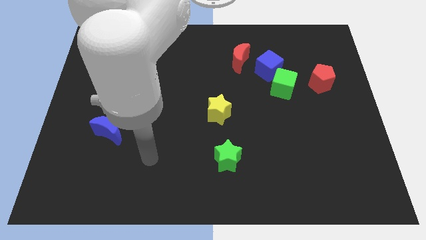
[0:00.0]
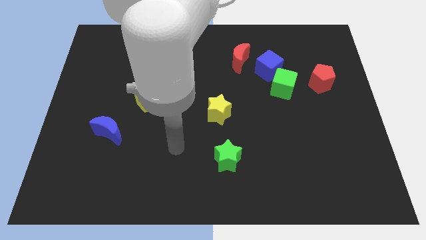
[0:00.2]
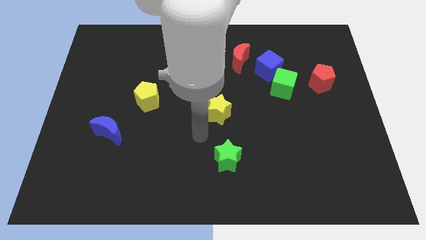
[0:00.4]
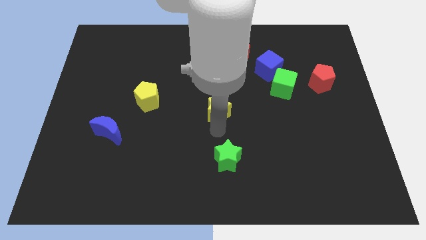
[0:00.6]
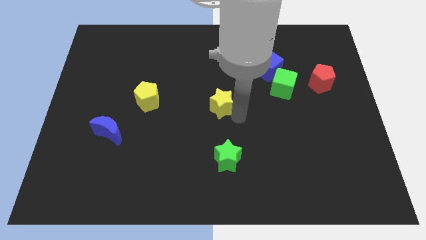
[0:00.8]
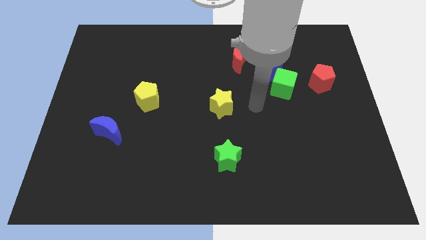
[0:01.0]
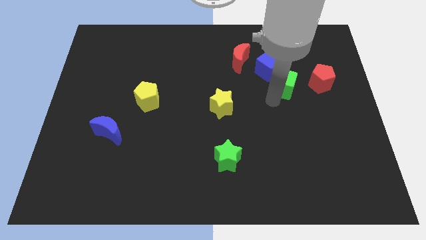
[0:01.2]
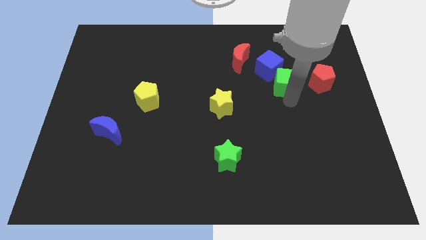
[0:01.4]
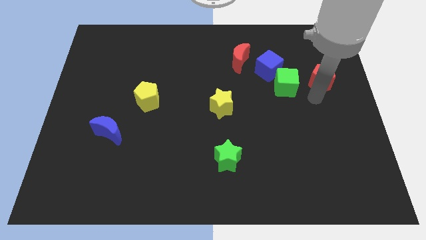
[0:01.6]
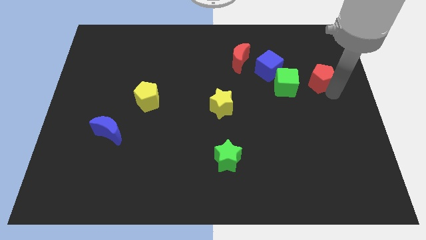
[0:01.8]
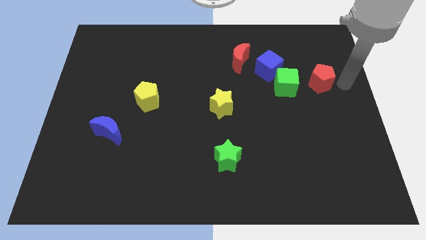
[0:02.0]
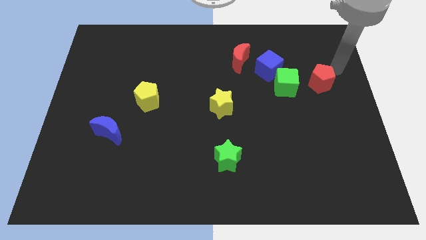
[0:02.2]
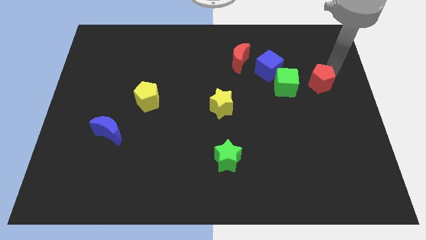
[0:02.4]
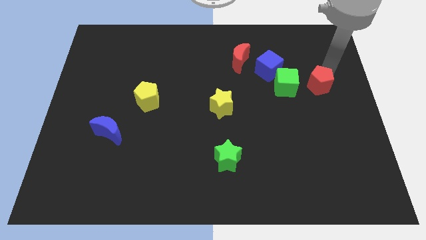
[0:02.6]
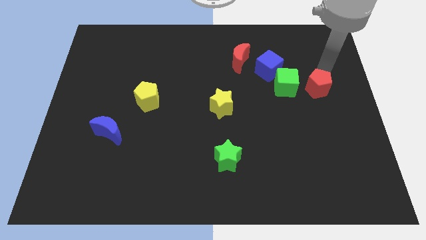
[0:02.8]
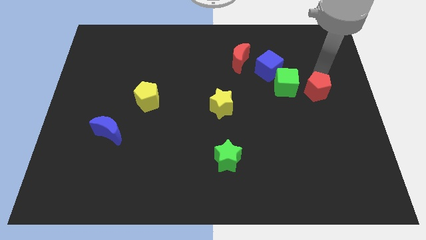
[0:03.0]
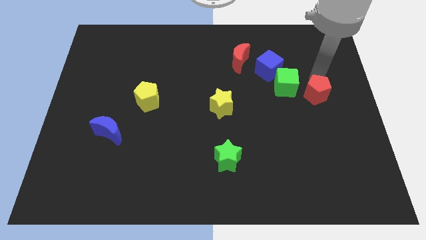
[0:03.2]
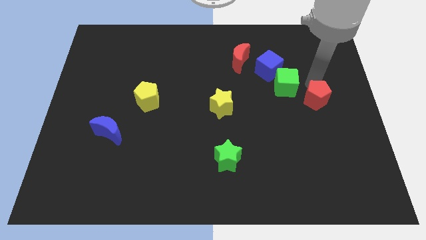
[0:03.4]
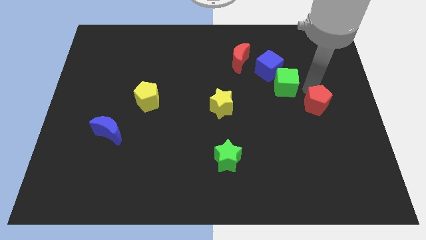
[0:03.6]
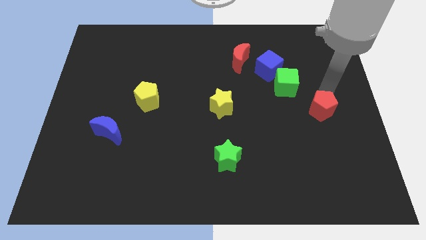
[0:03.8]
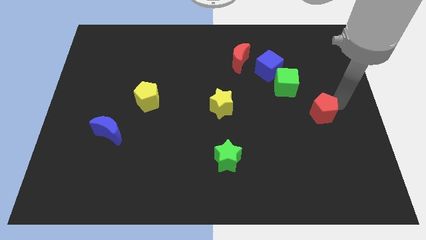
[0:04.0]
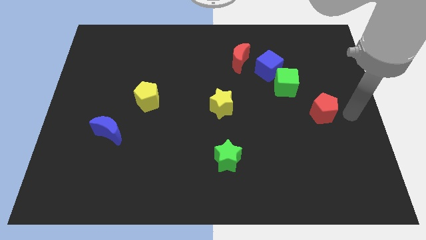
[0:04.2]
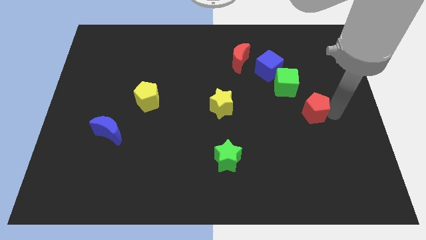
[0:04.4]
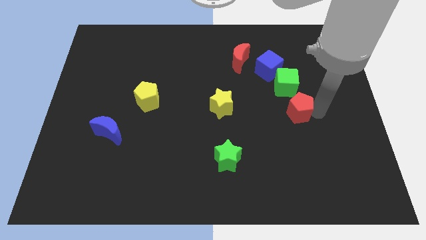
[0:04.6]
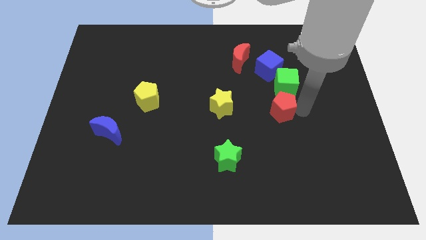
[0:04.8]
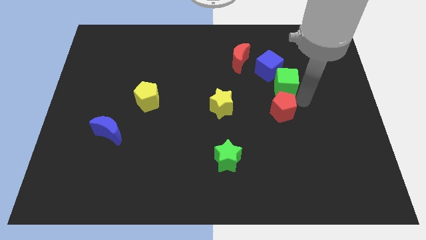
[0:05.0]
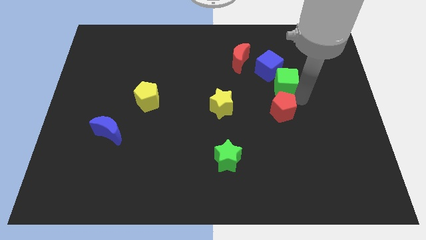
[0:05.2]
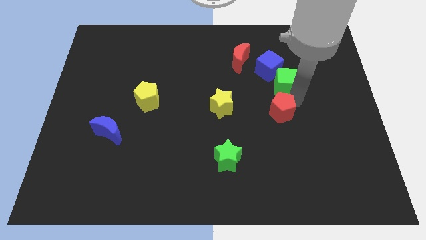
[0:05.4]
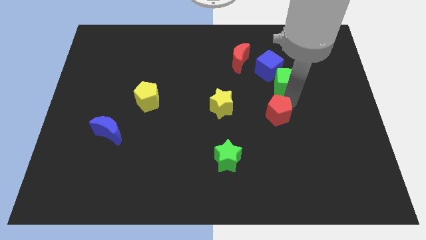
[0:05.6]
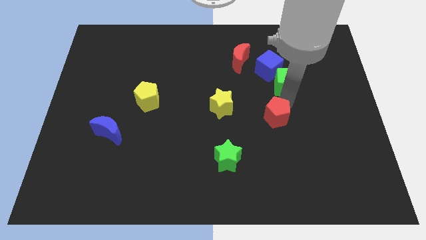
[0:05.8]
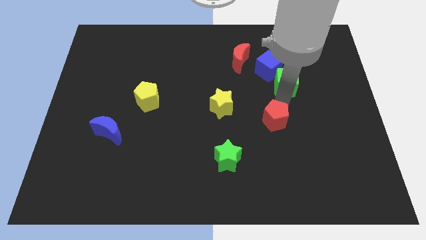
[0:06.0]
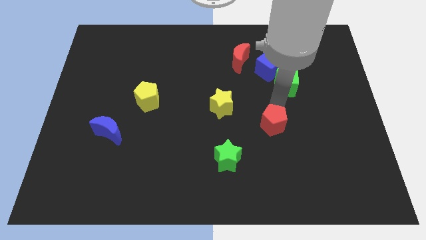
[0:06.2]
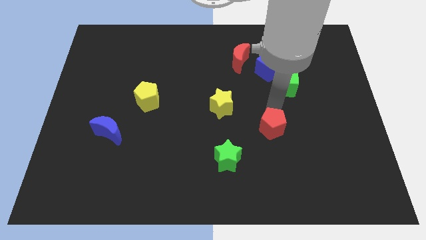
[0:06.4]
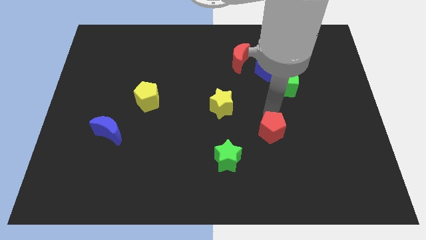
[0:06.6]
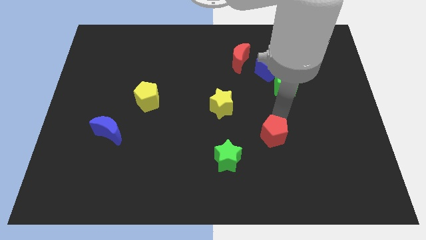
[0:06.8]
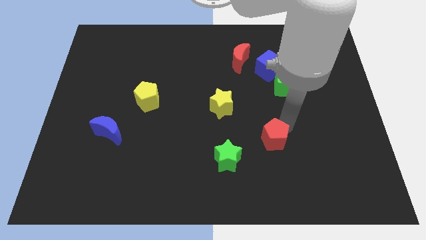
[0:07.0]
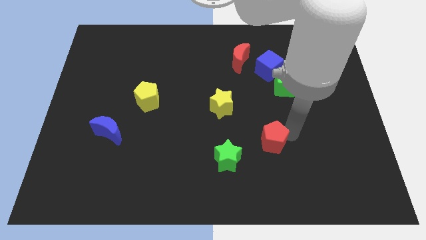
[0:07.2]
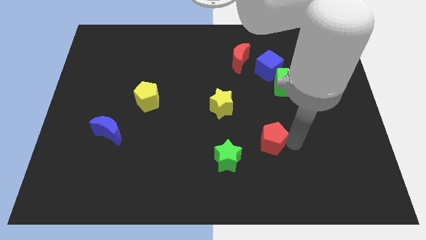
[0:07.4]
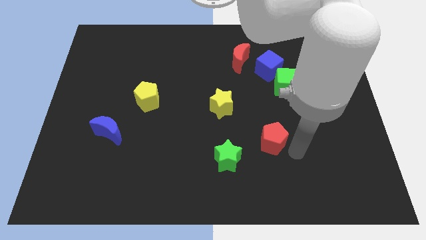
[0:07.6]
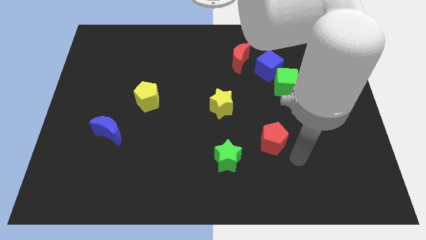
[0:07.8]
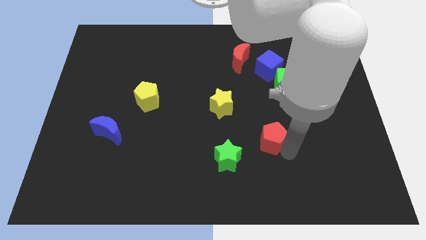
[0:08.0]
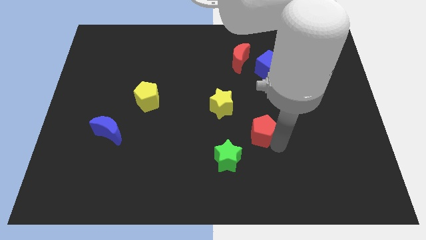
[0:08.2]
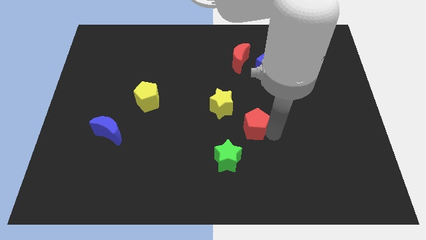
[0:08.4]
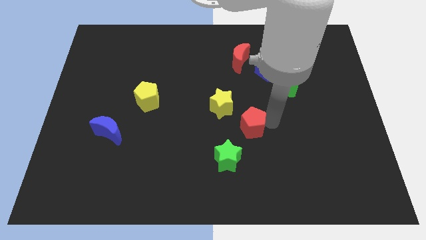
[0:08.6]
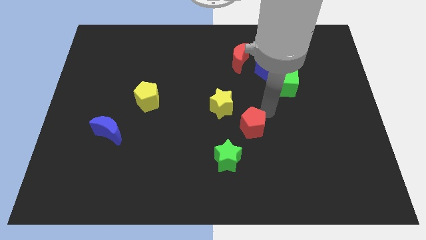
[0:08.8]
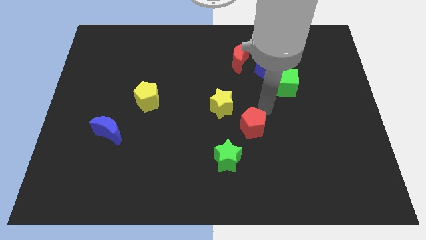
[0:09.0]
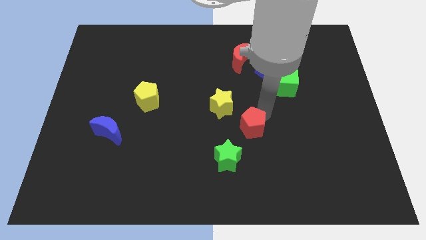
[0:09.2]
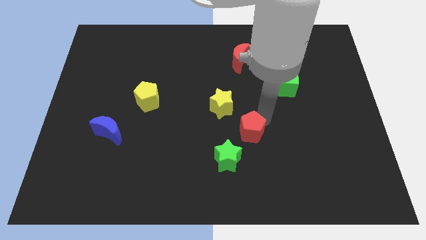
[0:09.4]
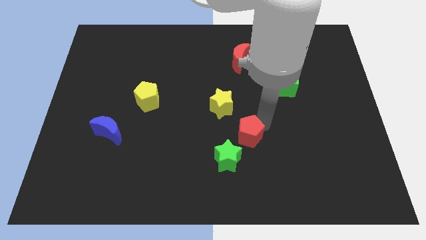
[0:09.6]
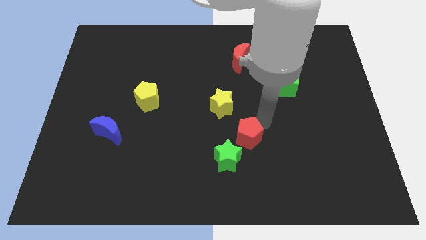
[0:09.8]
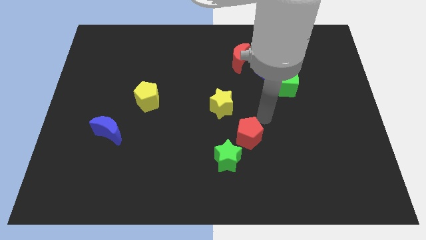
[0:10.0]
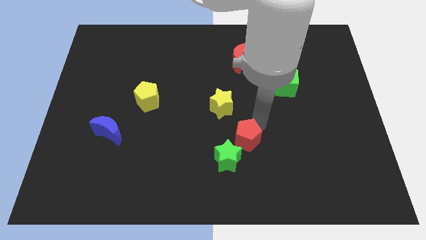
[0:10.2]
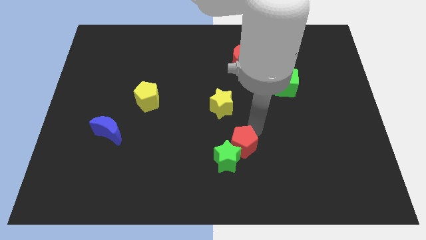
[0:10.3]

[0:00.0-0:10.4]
put the red pentagon towards the green star

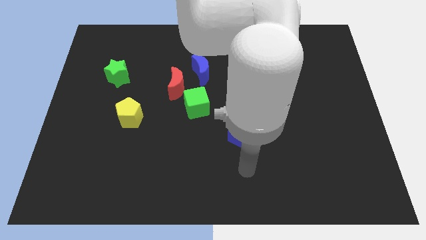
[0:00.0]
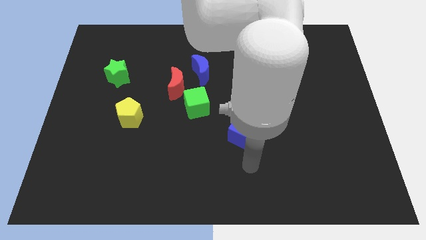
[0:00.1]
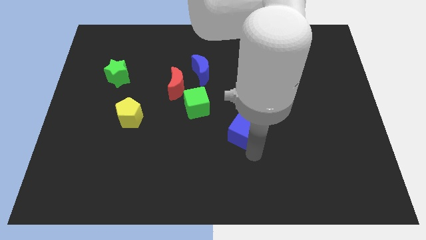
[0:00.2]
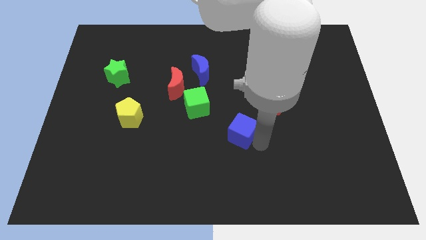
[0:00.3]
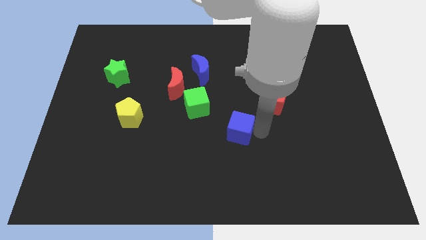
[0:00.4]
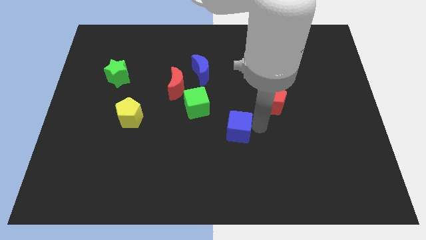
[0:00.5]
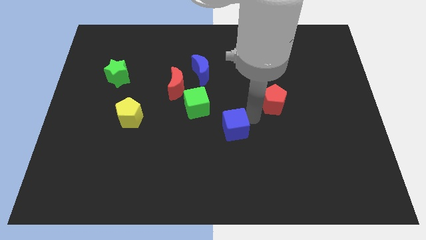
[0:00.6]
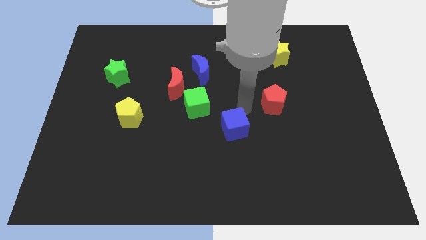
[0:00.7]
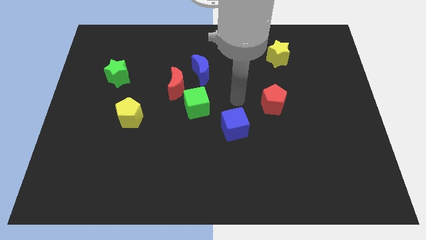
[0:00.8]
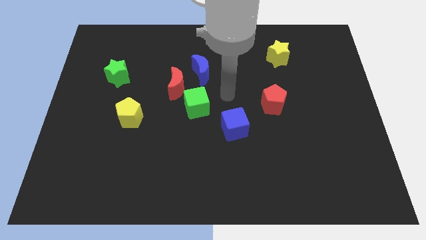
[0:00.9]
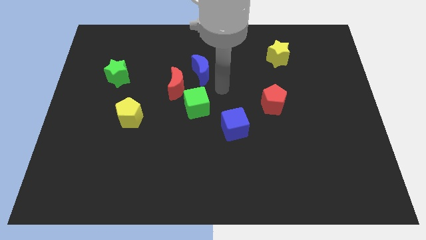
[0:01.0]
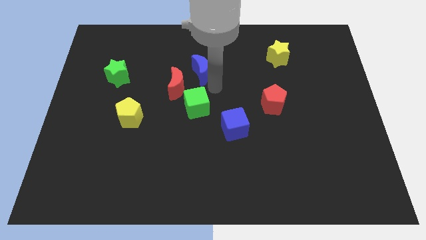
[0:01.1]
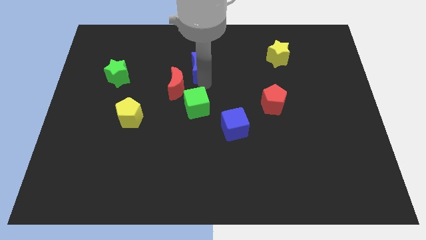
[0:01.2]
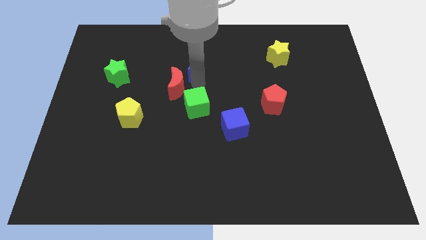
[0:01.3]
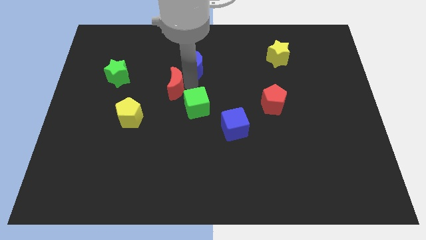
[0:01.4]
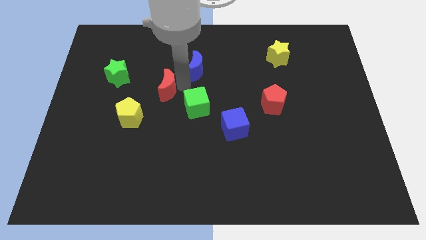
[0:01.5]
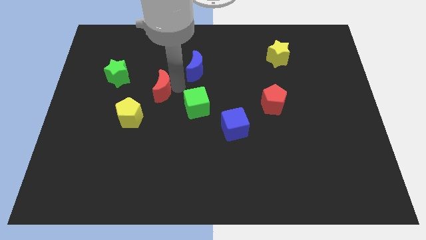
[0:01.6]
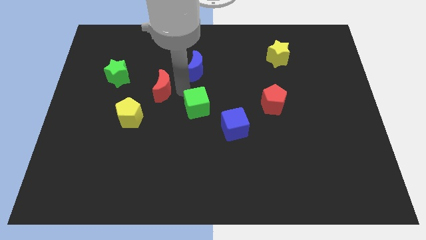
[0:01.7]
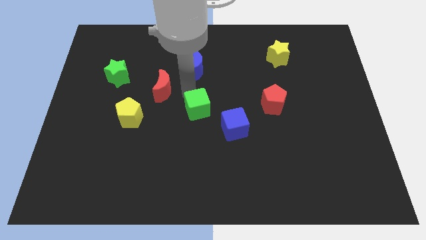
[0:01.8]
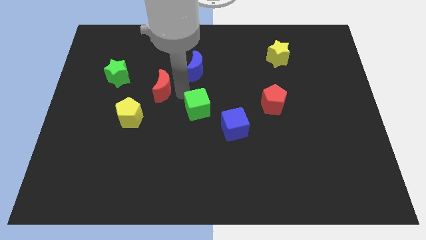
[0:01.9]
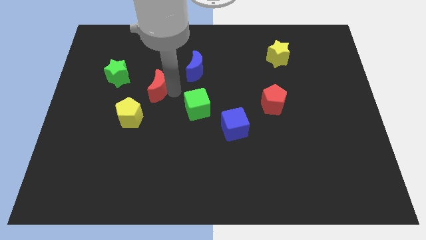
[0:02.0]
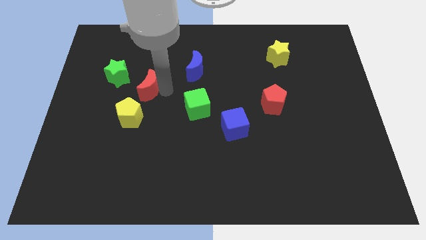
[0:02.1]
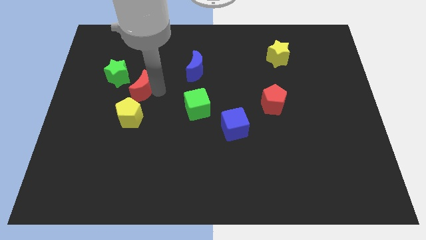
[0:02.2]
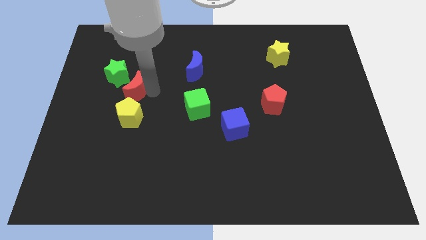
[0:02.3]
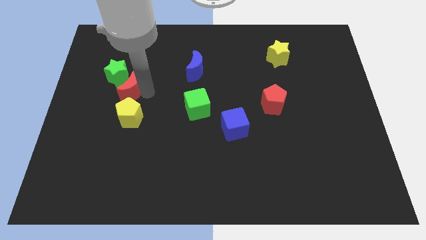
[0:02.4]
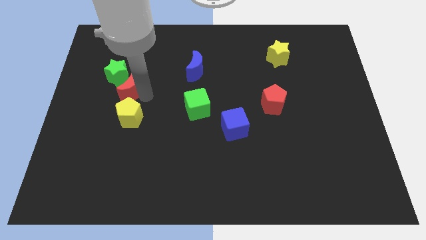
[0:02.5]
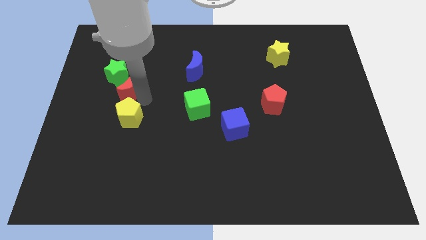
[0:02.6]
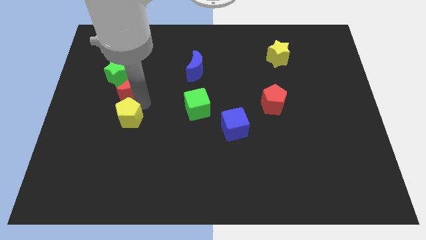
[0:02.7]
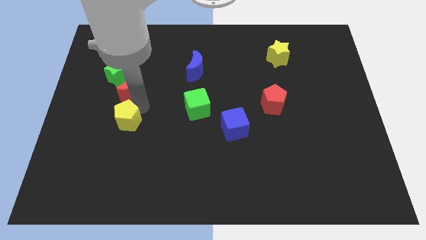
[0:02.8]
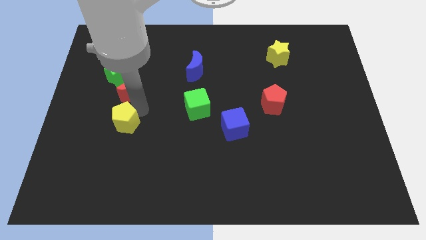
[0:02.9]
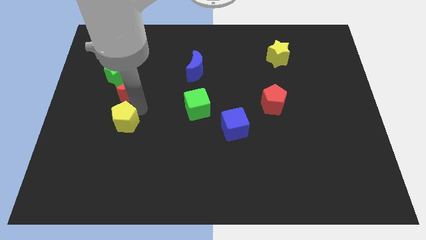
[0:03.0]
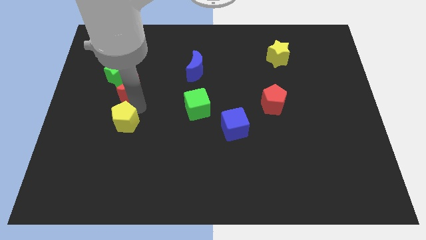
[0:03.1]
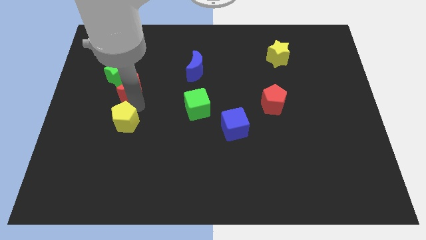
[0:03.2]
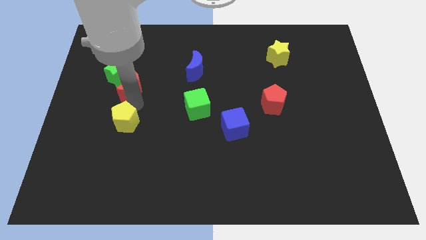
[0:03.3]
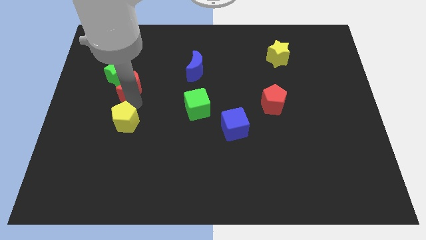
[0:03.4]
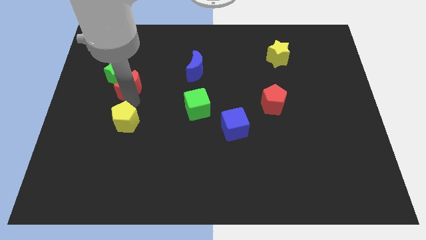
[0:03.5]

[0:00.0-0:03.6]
move the red moon towards the green star
